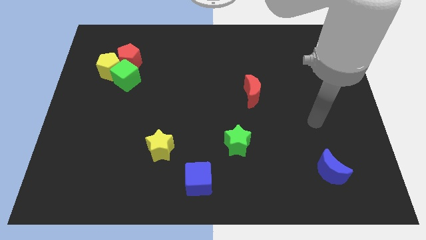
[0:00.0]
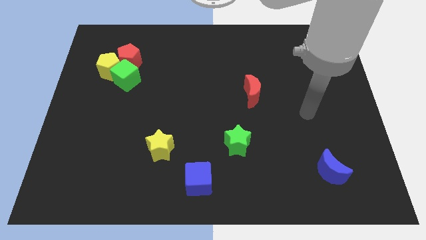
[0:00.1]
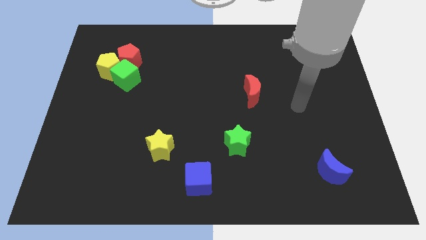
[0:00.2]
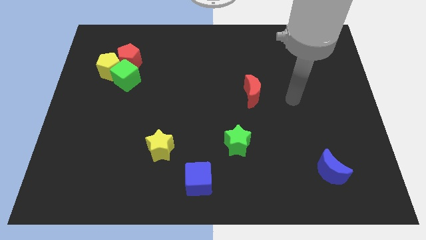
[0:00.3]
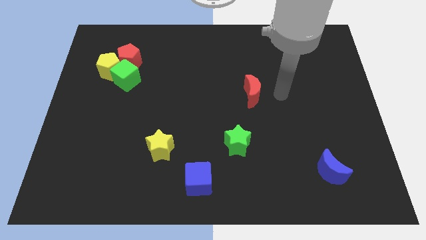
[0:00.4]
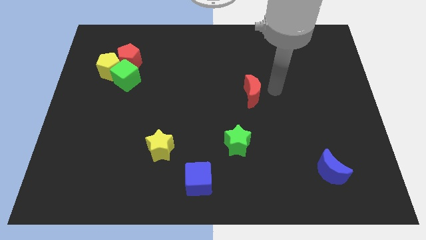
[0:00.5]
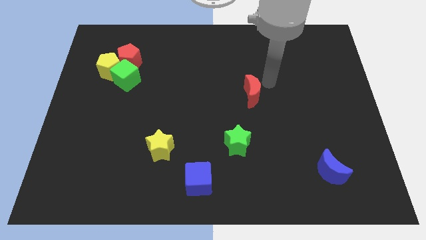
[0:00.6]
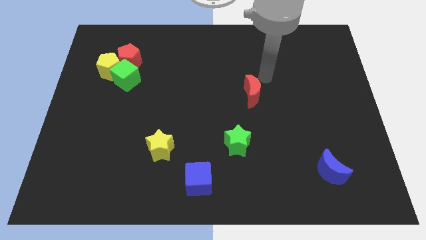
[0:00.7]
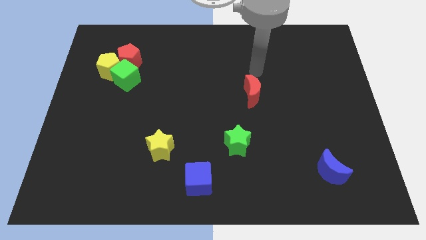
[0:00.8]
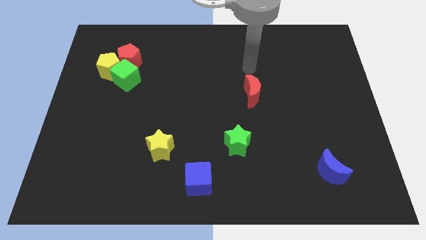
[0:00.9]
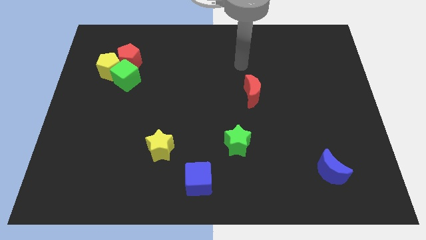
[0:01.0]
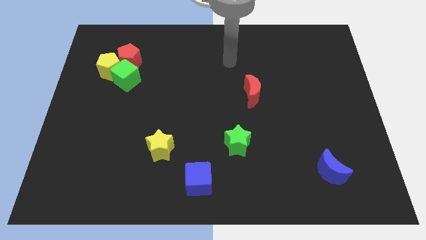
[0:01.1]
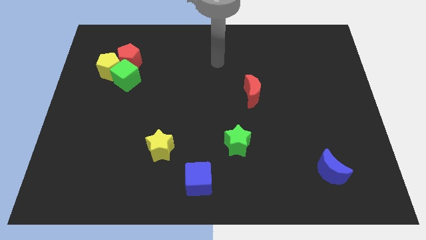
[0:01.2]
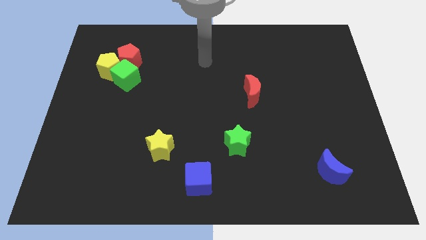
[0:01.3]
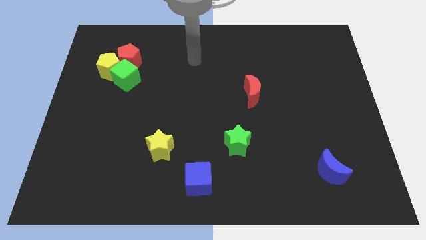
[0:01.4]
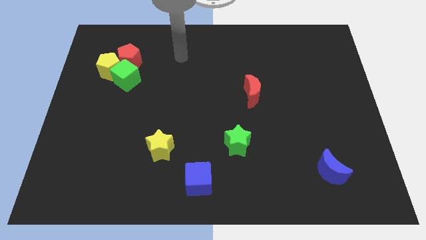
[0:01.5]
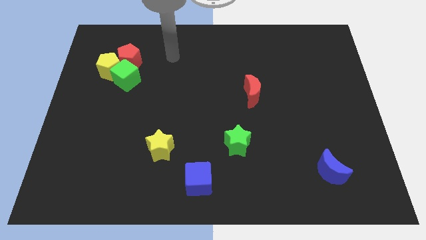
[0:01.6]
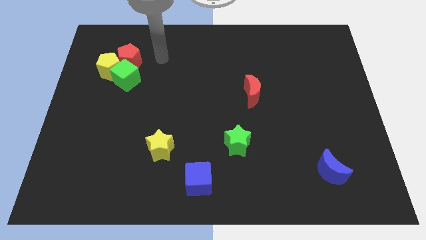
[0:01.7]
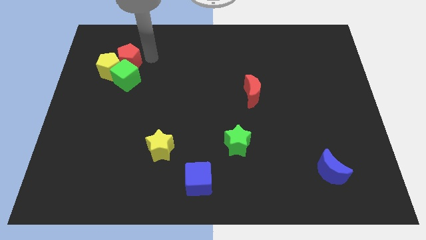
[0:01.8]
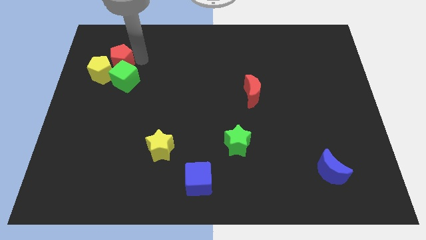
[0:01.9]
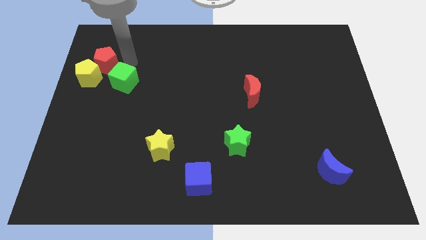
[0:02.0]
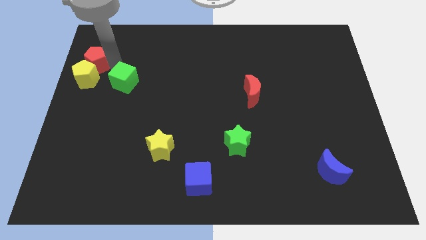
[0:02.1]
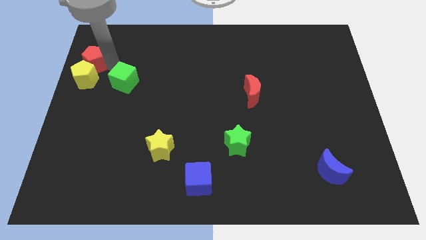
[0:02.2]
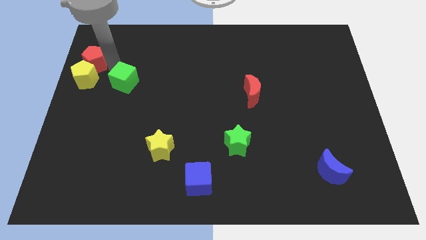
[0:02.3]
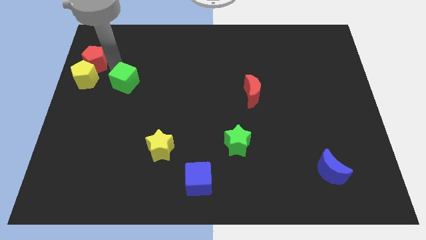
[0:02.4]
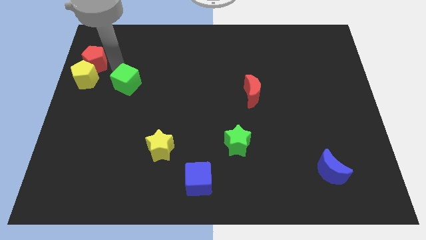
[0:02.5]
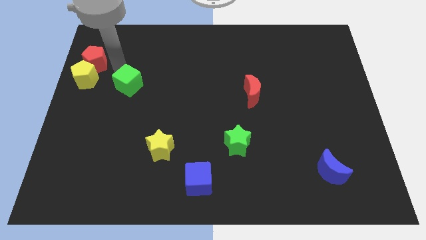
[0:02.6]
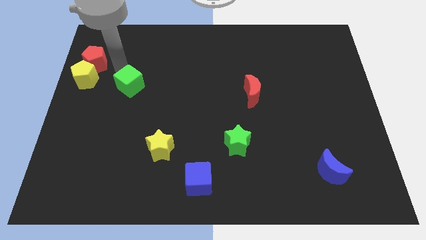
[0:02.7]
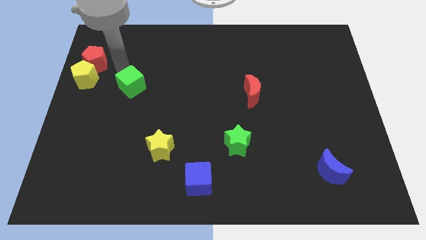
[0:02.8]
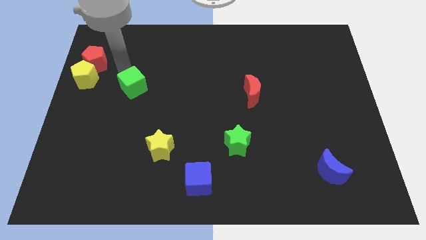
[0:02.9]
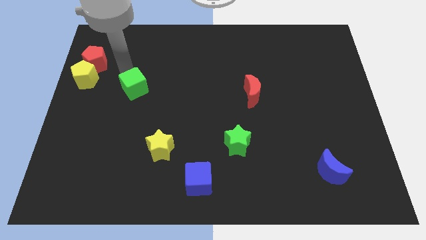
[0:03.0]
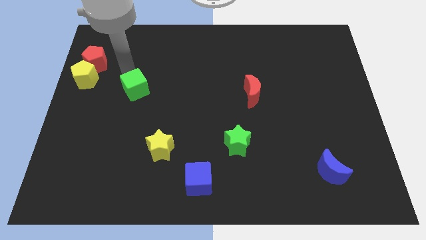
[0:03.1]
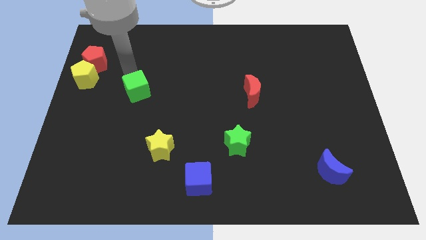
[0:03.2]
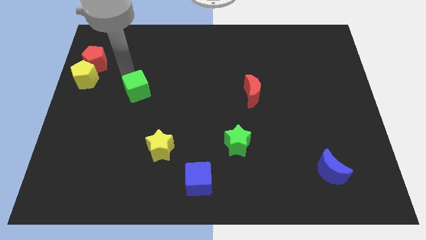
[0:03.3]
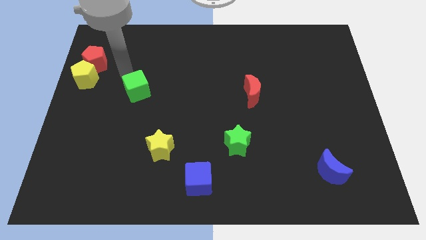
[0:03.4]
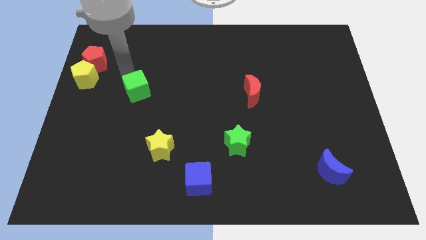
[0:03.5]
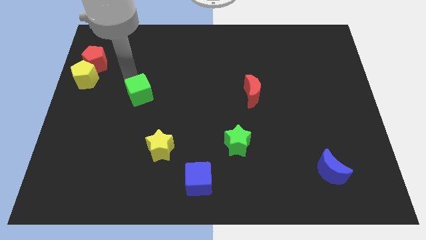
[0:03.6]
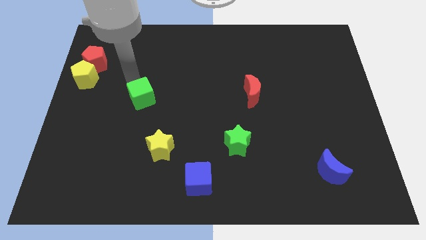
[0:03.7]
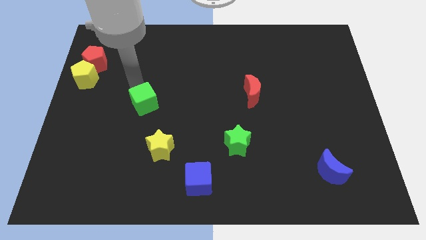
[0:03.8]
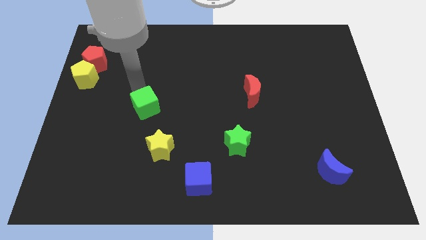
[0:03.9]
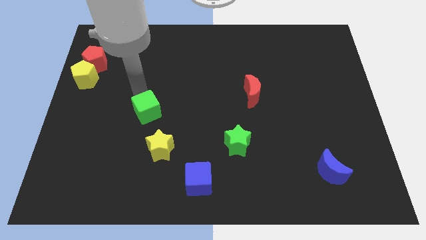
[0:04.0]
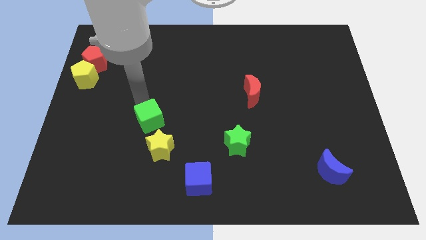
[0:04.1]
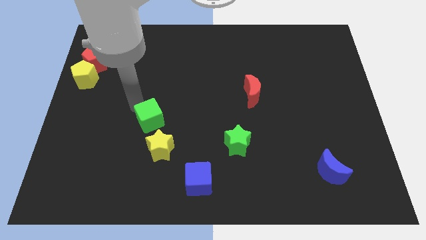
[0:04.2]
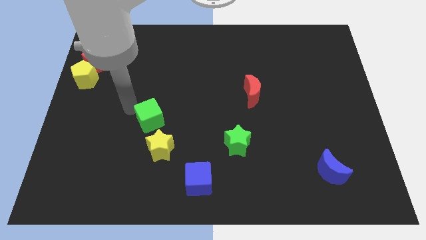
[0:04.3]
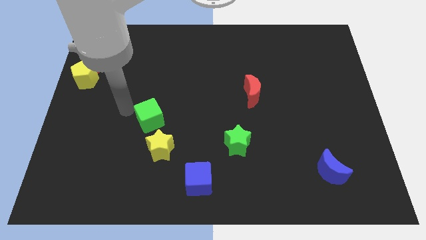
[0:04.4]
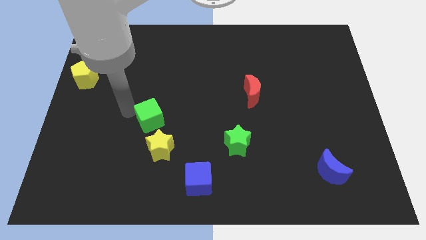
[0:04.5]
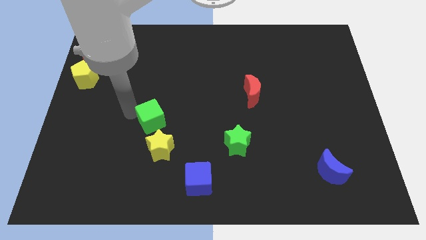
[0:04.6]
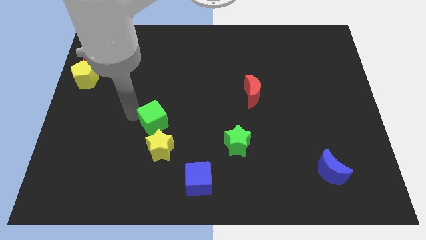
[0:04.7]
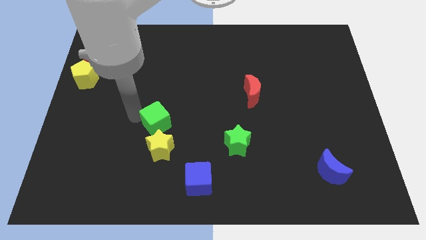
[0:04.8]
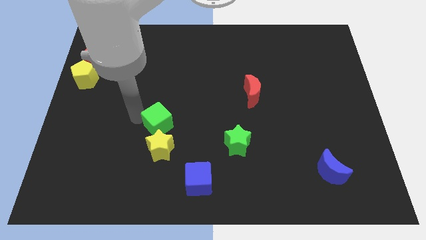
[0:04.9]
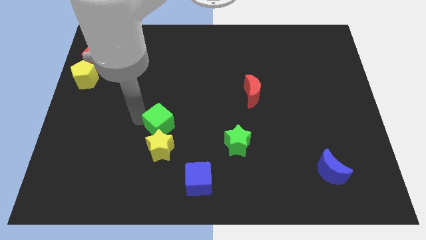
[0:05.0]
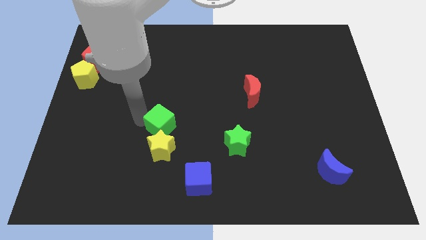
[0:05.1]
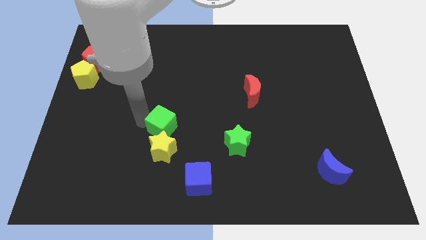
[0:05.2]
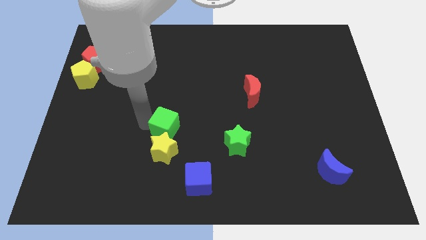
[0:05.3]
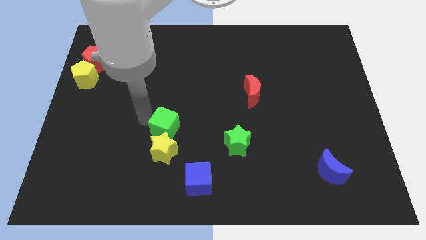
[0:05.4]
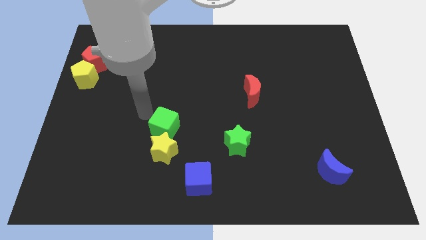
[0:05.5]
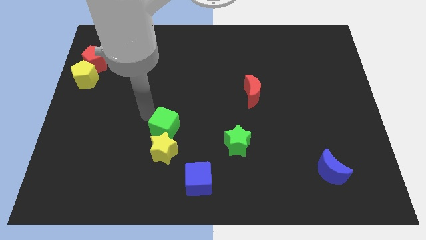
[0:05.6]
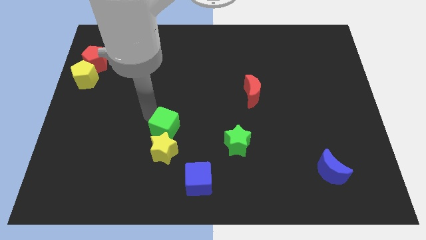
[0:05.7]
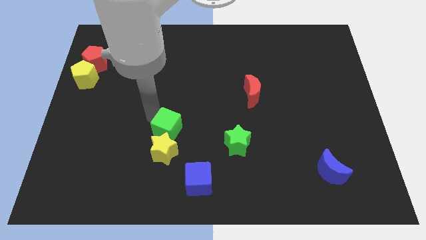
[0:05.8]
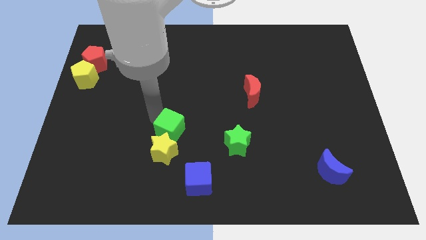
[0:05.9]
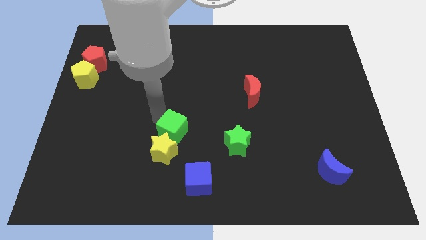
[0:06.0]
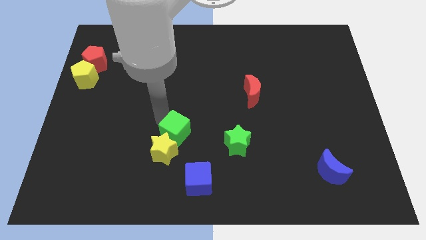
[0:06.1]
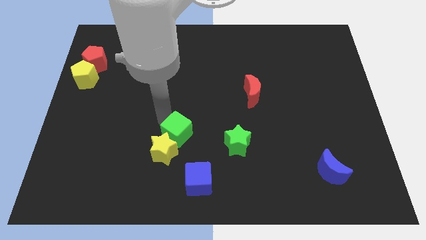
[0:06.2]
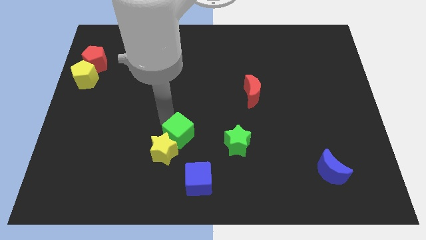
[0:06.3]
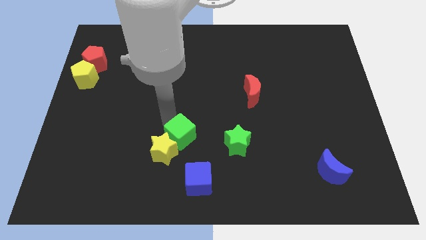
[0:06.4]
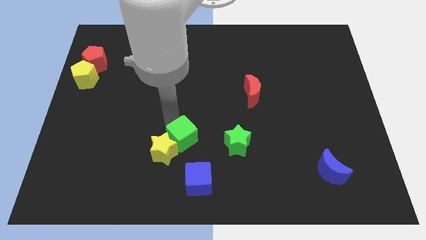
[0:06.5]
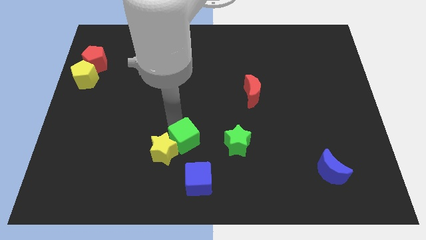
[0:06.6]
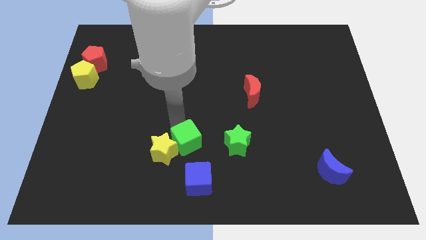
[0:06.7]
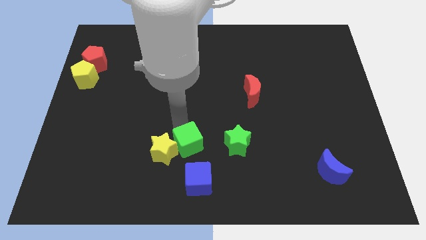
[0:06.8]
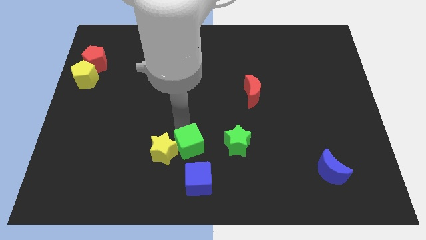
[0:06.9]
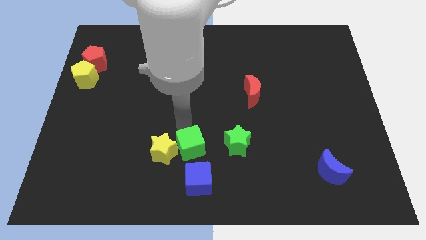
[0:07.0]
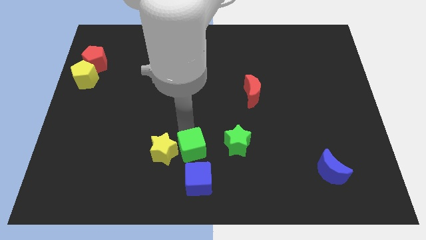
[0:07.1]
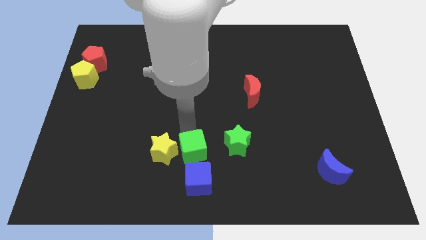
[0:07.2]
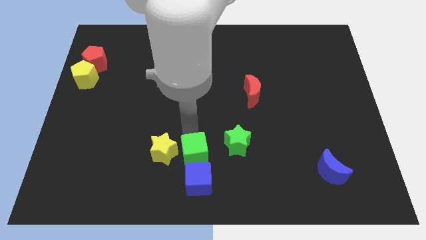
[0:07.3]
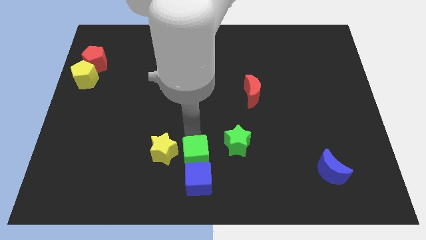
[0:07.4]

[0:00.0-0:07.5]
slide the green cube towards the blue cube
